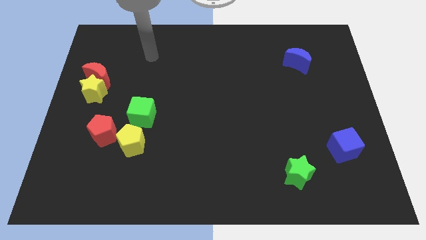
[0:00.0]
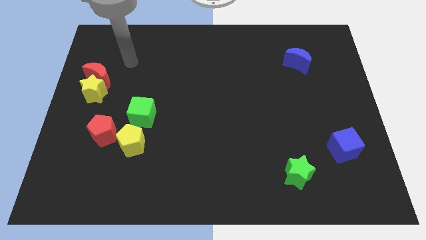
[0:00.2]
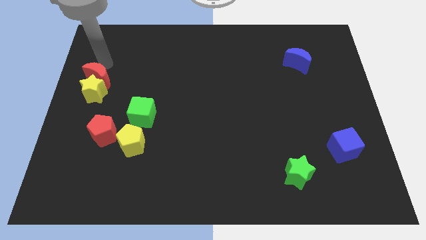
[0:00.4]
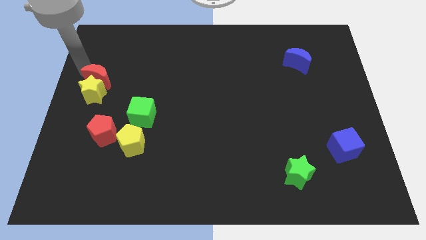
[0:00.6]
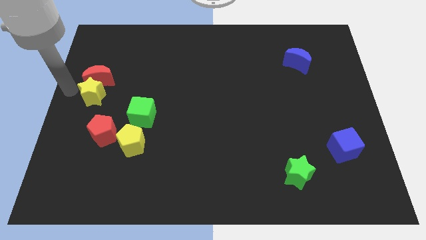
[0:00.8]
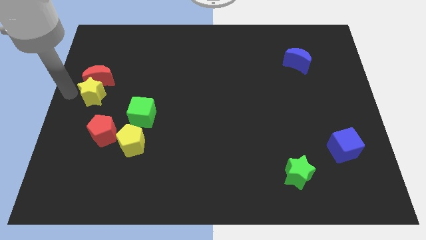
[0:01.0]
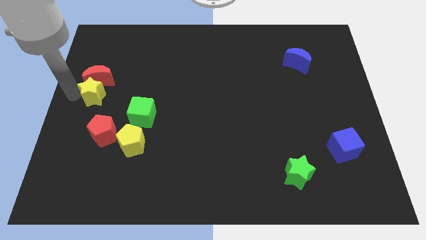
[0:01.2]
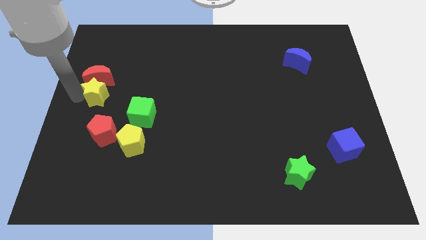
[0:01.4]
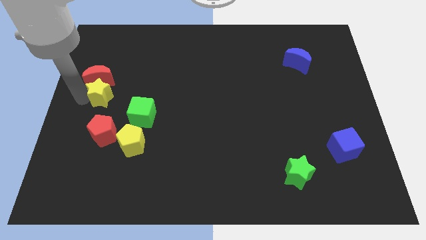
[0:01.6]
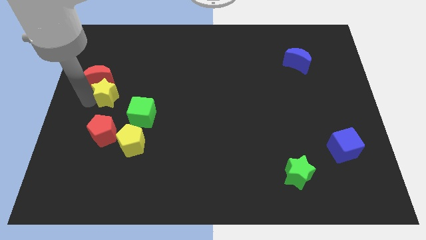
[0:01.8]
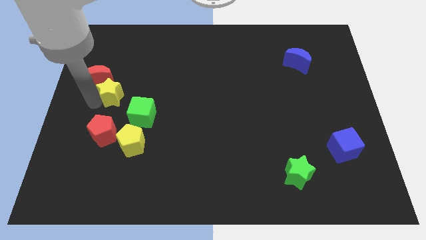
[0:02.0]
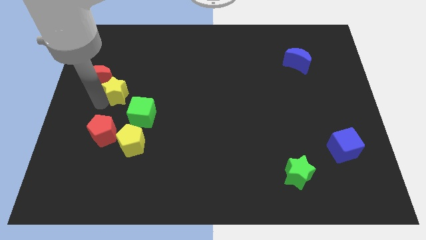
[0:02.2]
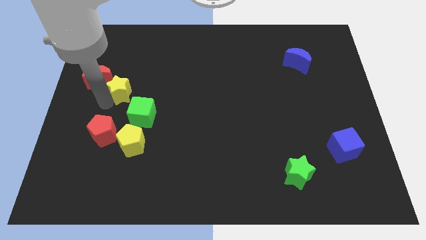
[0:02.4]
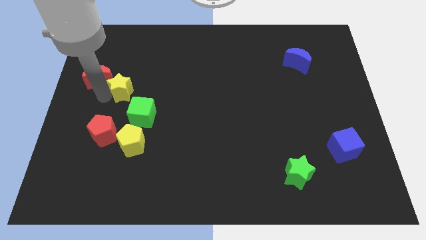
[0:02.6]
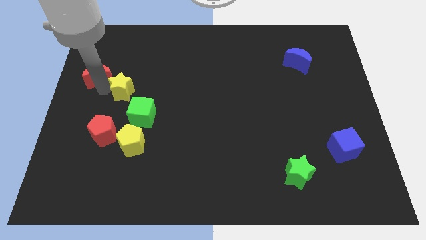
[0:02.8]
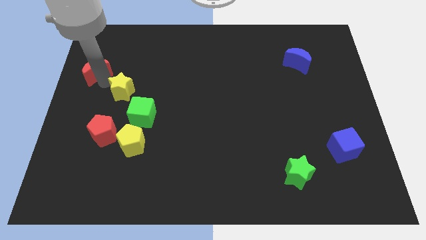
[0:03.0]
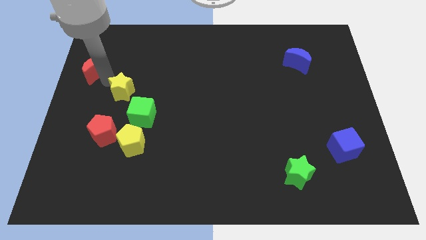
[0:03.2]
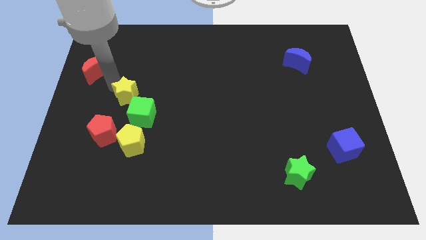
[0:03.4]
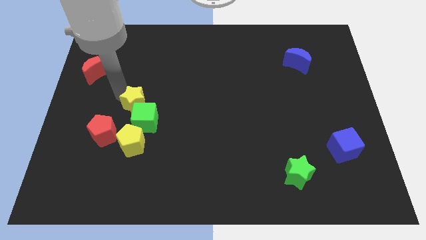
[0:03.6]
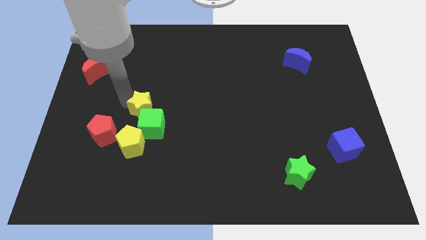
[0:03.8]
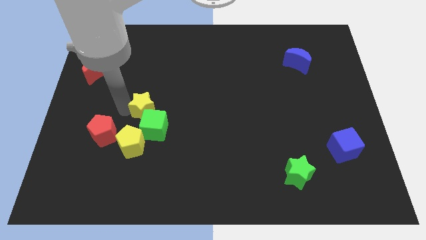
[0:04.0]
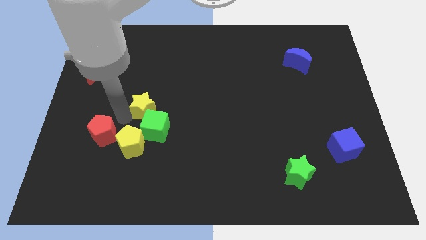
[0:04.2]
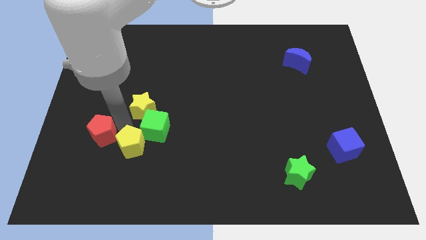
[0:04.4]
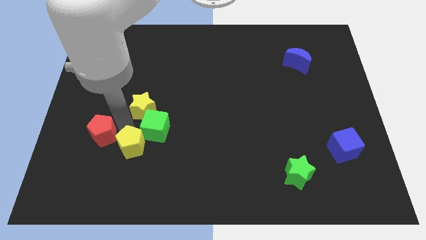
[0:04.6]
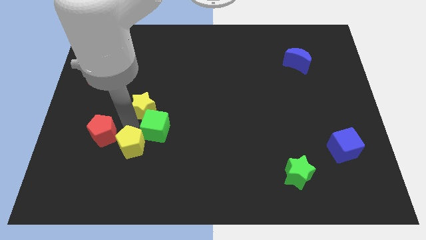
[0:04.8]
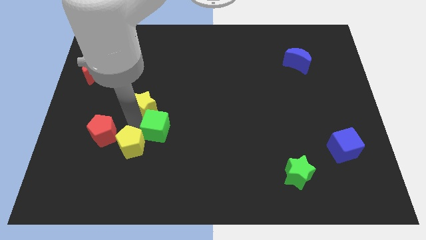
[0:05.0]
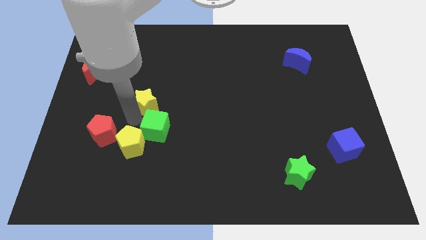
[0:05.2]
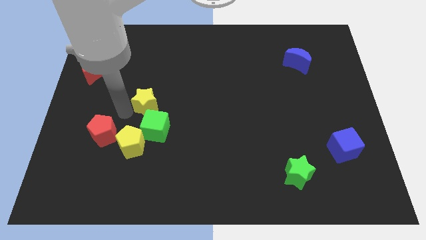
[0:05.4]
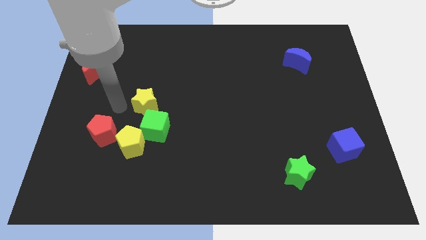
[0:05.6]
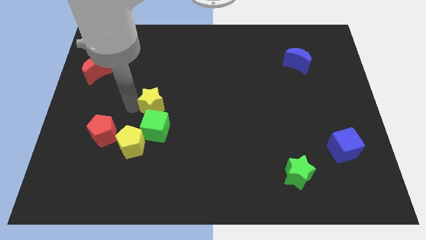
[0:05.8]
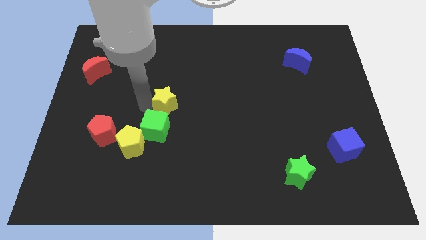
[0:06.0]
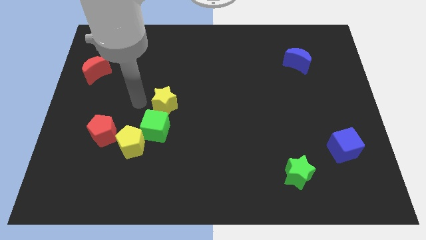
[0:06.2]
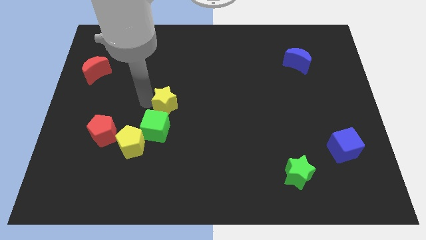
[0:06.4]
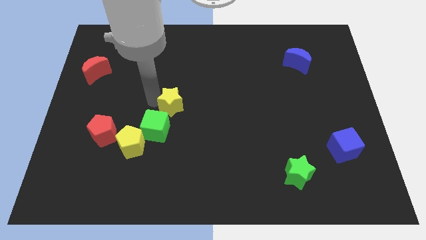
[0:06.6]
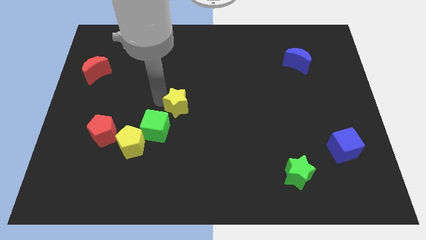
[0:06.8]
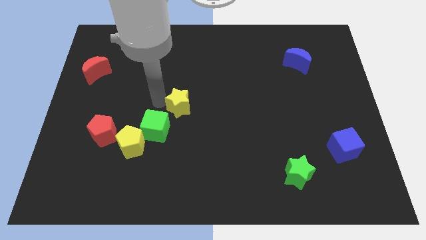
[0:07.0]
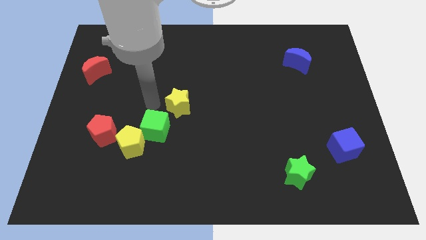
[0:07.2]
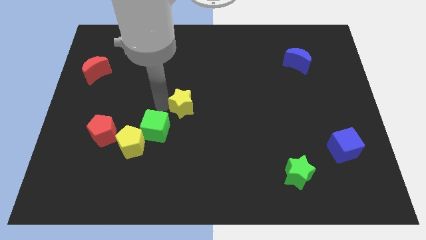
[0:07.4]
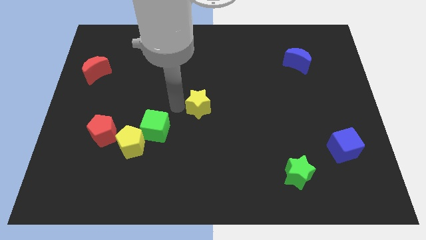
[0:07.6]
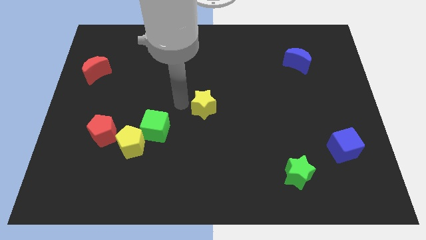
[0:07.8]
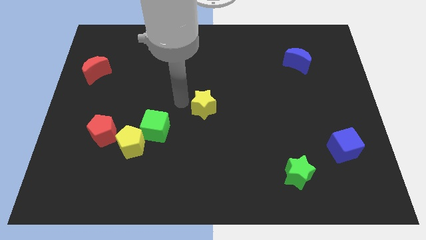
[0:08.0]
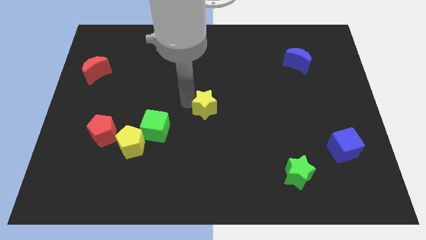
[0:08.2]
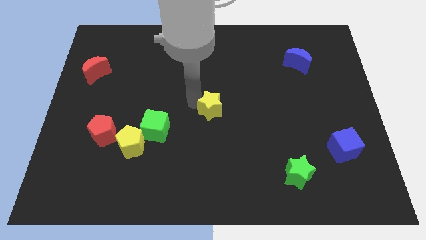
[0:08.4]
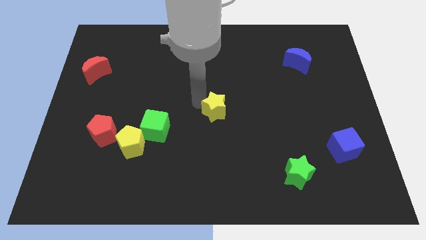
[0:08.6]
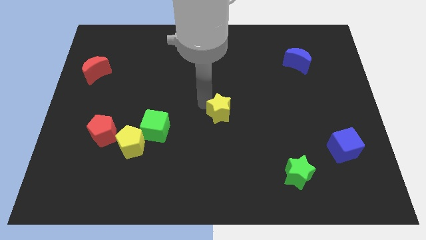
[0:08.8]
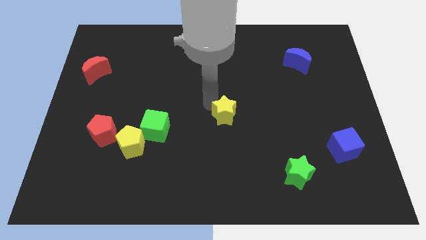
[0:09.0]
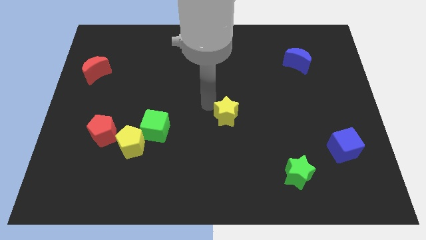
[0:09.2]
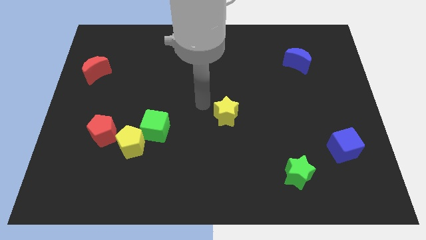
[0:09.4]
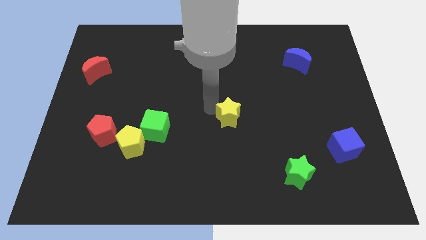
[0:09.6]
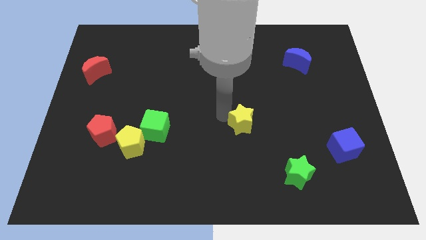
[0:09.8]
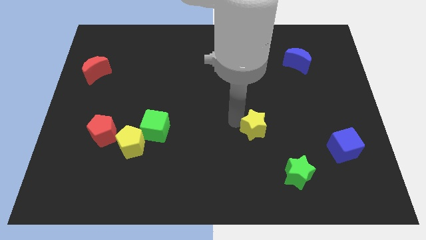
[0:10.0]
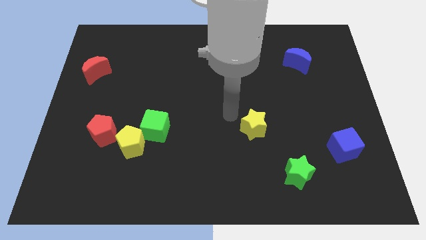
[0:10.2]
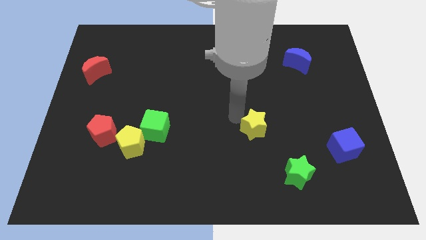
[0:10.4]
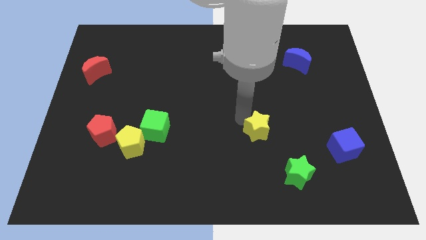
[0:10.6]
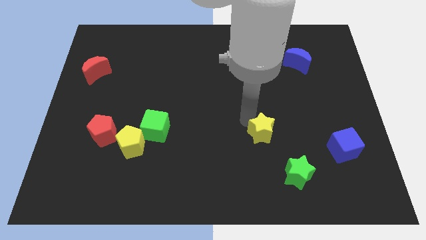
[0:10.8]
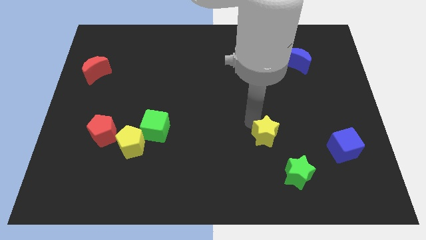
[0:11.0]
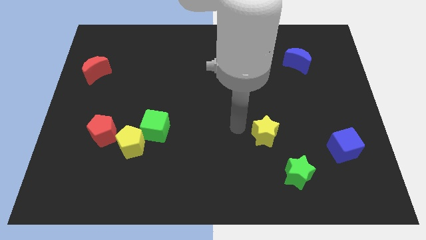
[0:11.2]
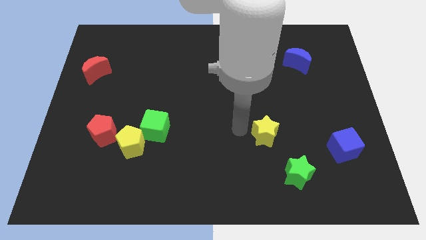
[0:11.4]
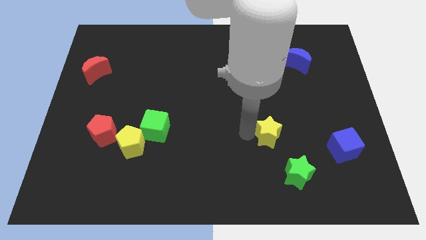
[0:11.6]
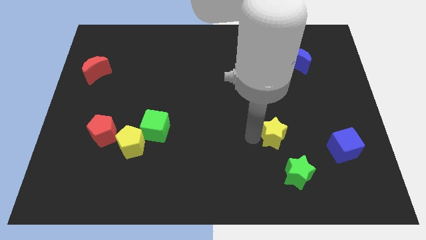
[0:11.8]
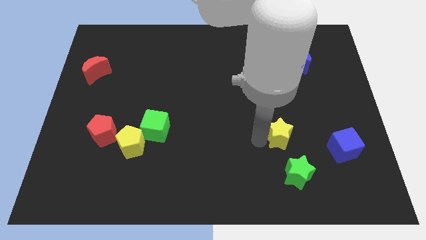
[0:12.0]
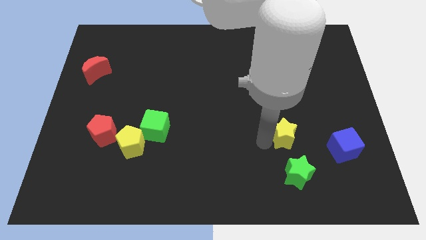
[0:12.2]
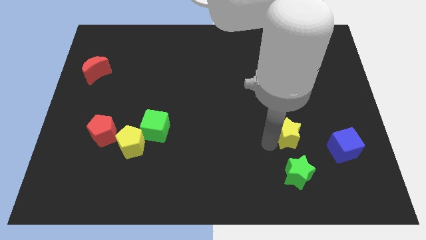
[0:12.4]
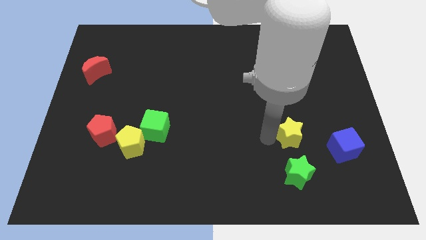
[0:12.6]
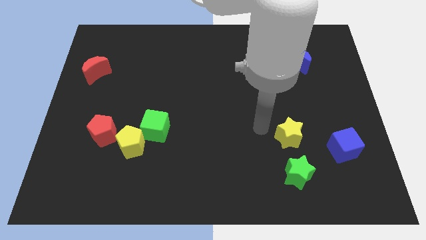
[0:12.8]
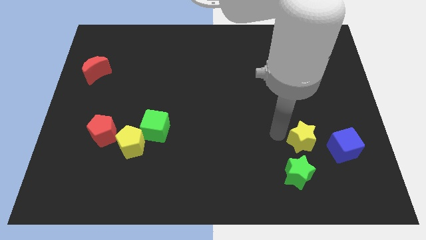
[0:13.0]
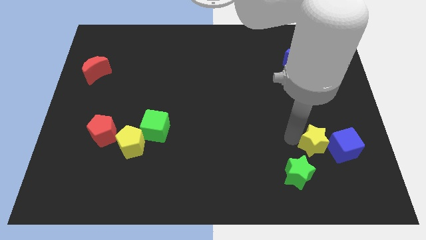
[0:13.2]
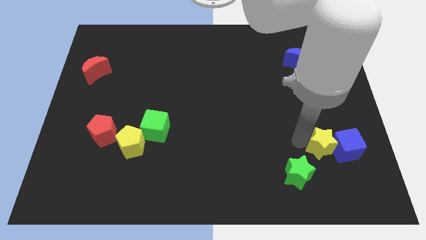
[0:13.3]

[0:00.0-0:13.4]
put the yellow star next to the blue cube

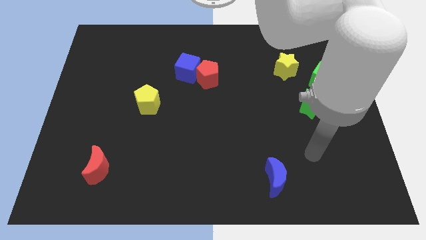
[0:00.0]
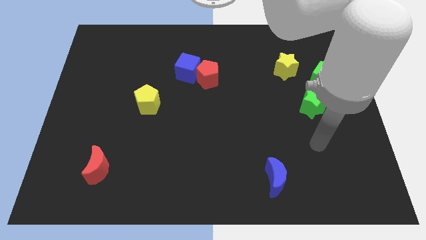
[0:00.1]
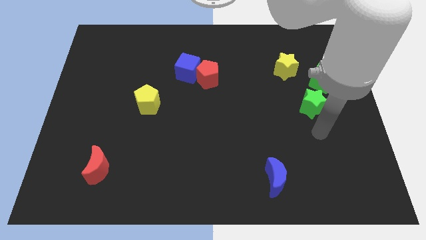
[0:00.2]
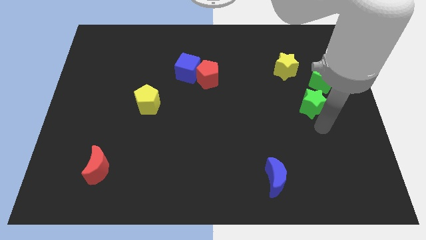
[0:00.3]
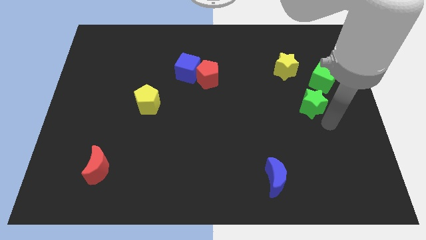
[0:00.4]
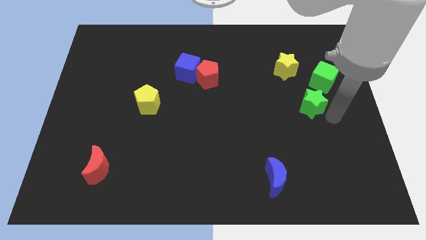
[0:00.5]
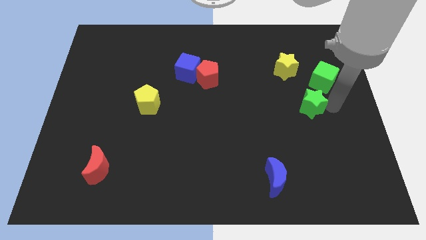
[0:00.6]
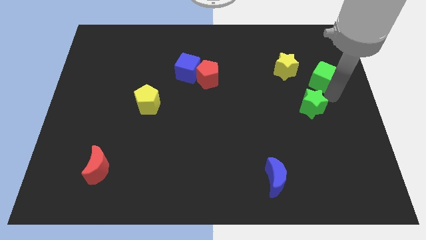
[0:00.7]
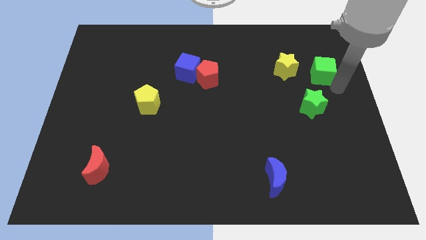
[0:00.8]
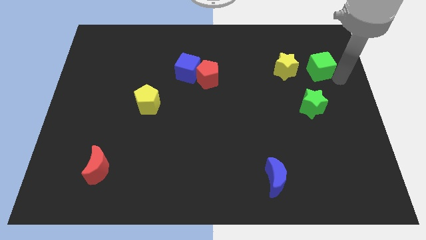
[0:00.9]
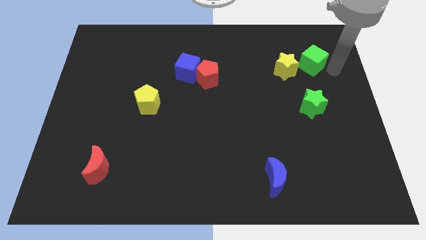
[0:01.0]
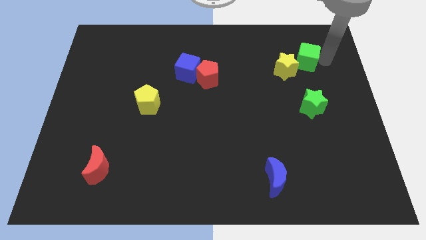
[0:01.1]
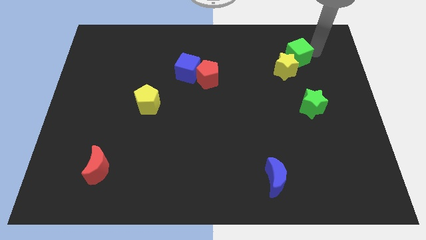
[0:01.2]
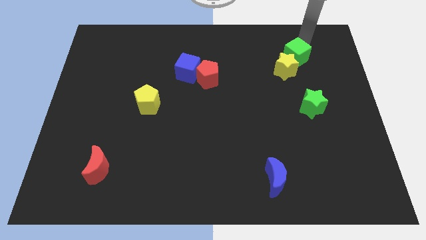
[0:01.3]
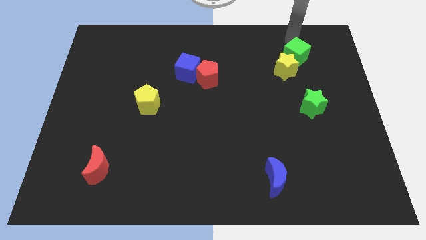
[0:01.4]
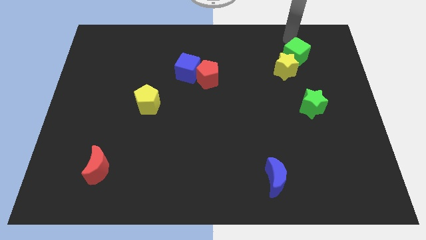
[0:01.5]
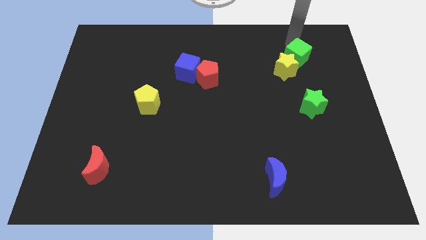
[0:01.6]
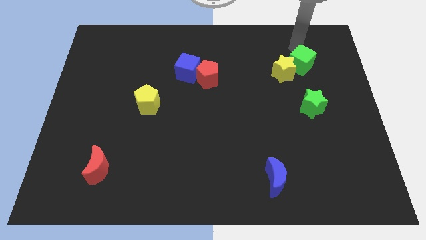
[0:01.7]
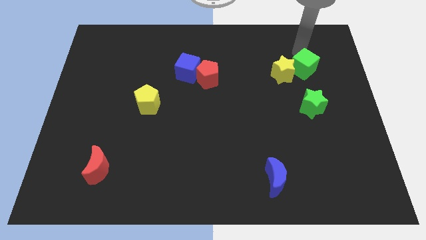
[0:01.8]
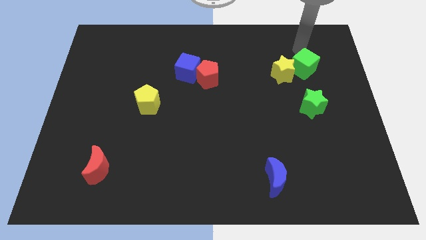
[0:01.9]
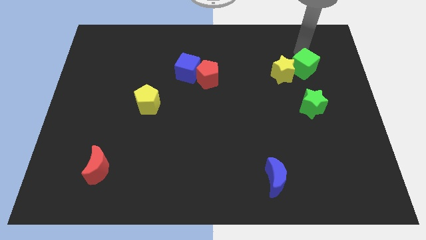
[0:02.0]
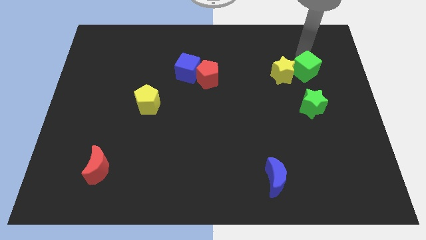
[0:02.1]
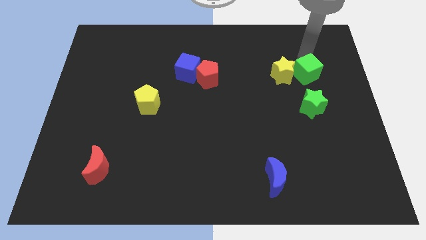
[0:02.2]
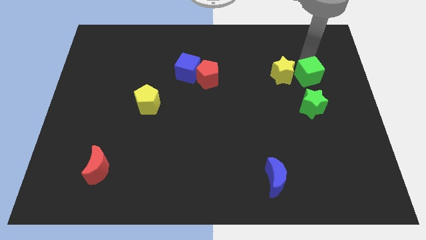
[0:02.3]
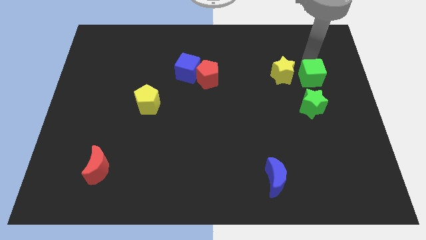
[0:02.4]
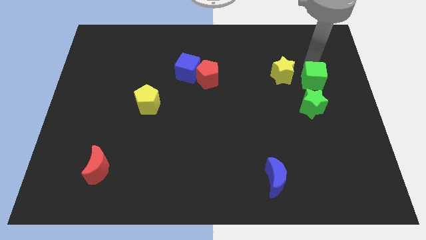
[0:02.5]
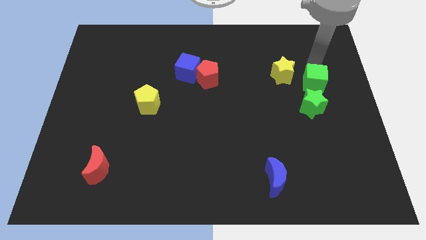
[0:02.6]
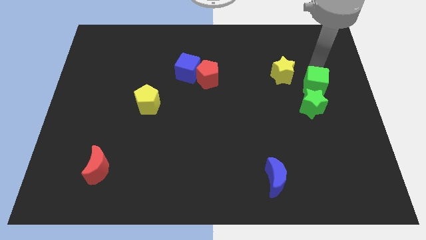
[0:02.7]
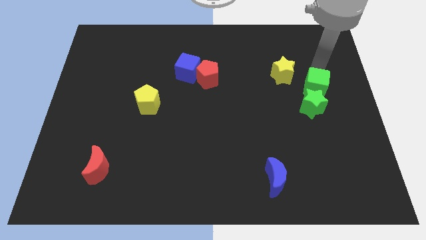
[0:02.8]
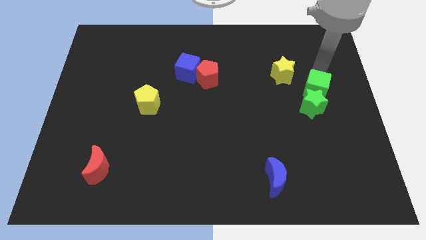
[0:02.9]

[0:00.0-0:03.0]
put the green cube next to the green star
